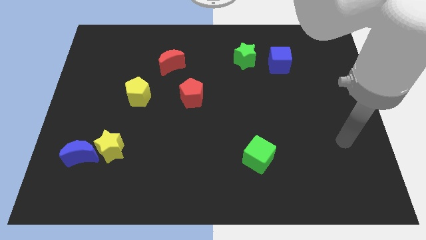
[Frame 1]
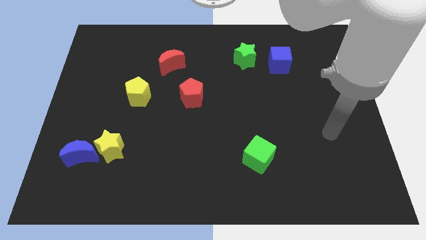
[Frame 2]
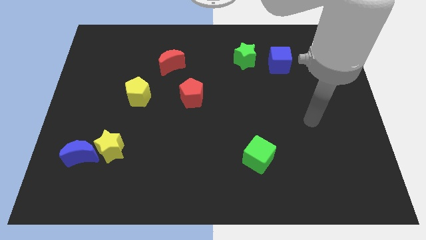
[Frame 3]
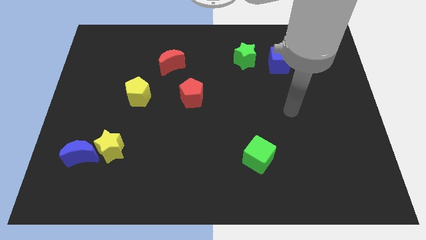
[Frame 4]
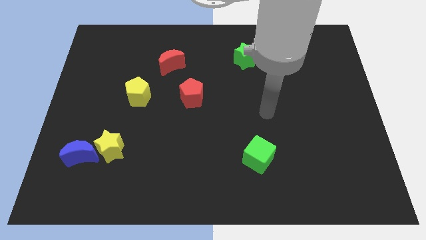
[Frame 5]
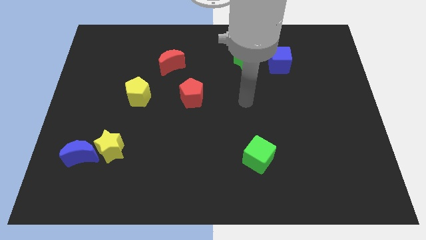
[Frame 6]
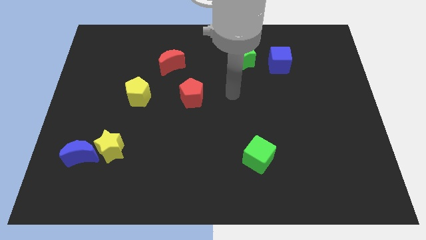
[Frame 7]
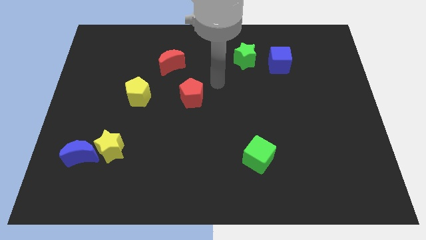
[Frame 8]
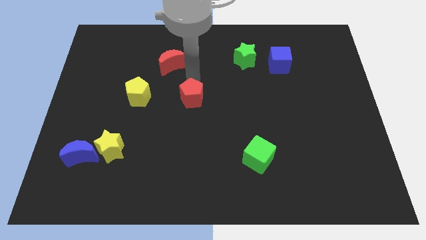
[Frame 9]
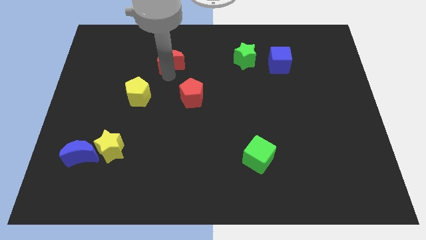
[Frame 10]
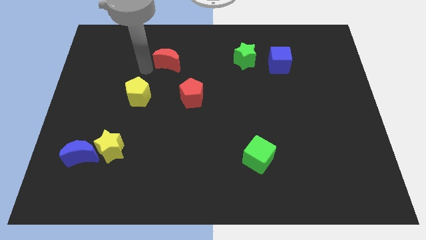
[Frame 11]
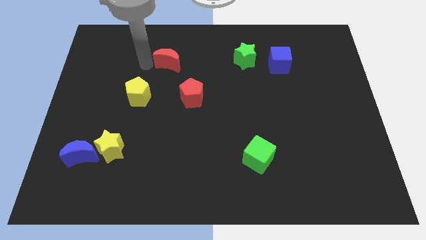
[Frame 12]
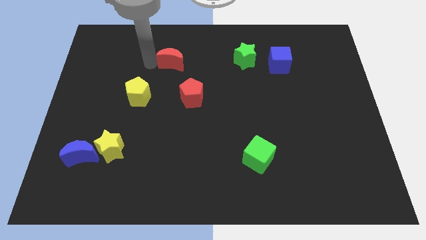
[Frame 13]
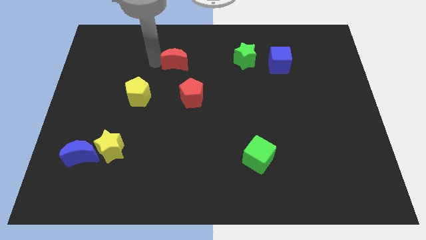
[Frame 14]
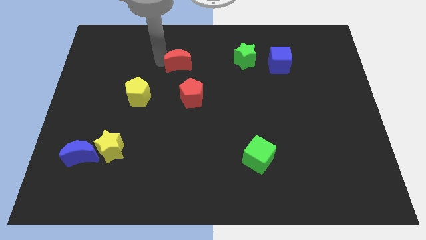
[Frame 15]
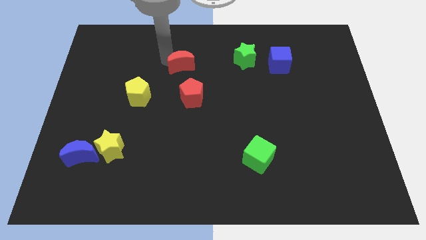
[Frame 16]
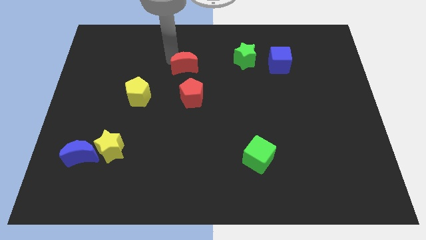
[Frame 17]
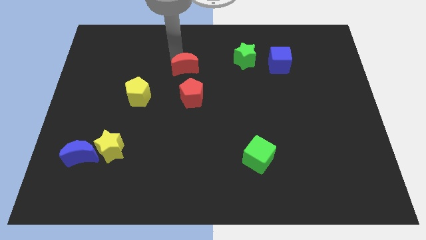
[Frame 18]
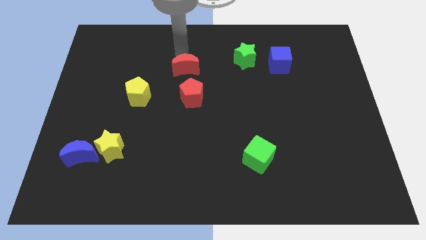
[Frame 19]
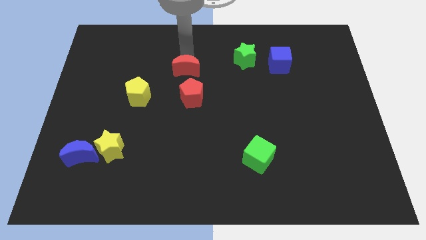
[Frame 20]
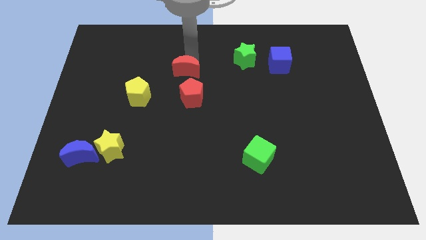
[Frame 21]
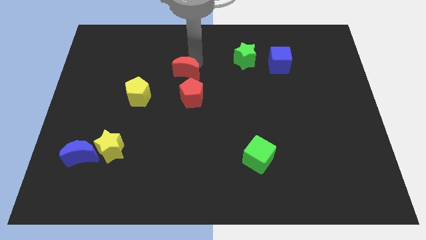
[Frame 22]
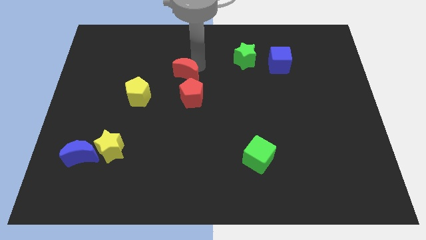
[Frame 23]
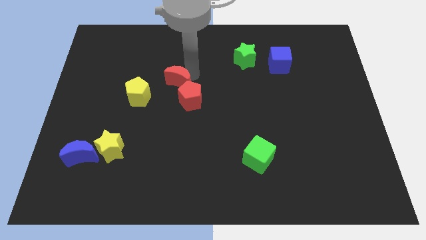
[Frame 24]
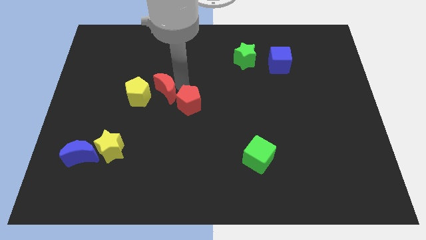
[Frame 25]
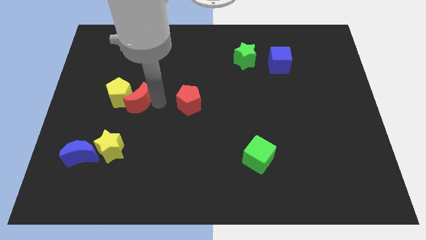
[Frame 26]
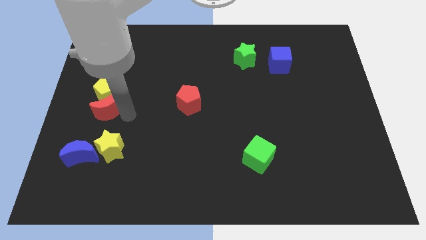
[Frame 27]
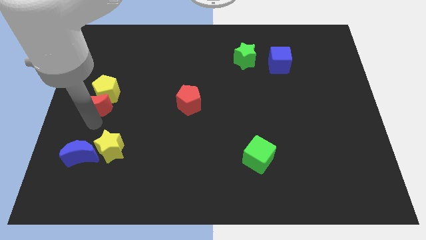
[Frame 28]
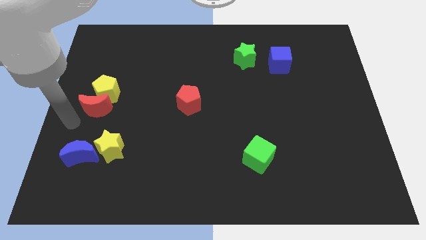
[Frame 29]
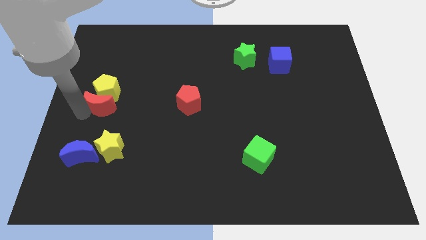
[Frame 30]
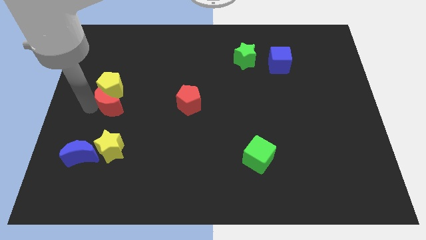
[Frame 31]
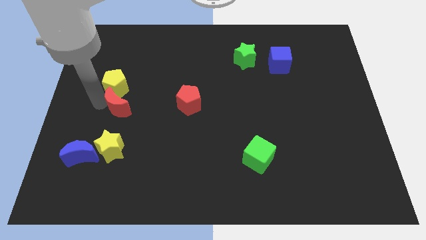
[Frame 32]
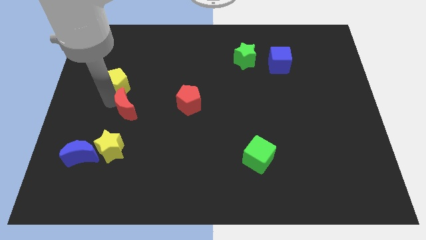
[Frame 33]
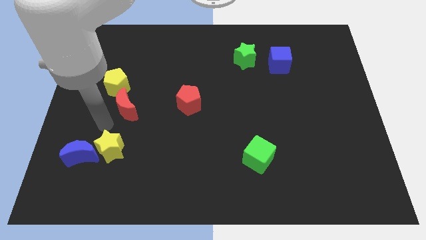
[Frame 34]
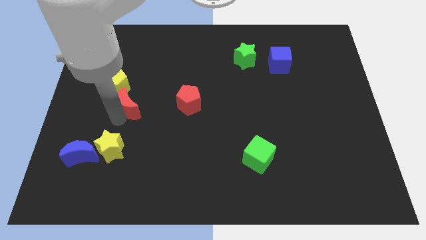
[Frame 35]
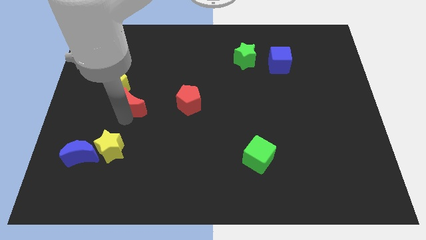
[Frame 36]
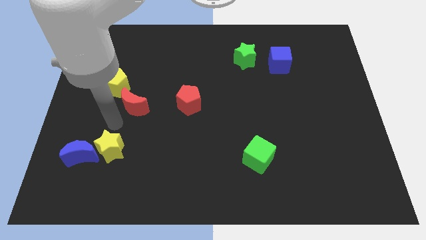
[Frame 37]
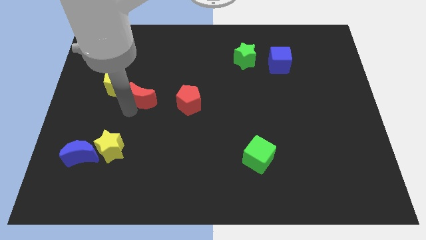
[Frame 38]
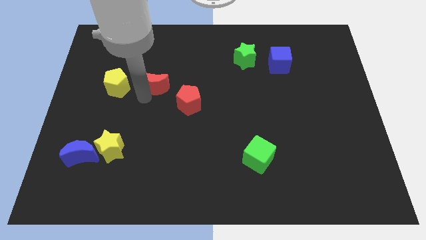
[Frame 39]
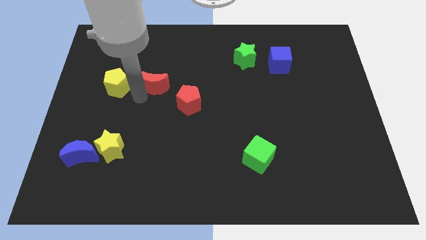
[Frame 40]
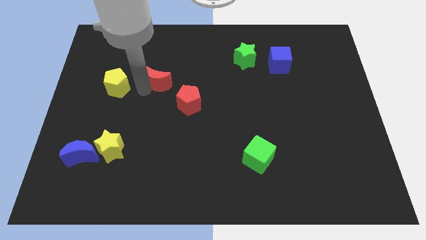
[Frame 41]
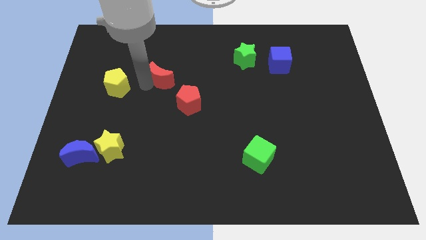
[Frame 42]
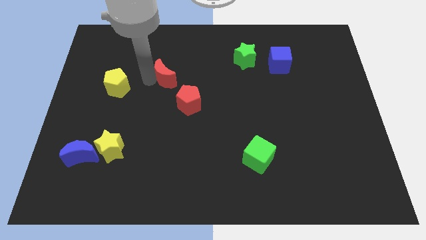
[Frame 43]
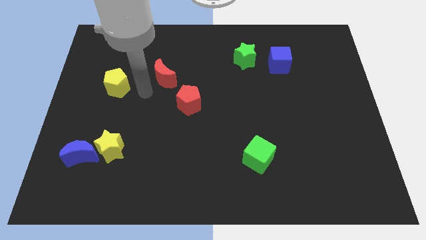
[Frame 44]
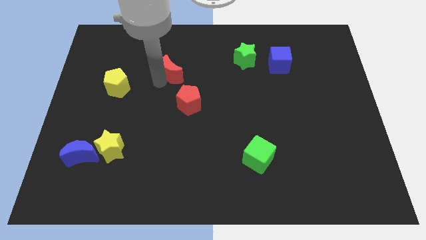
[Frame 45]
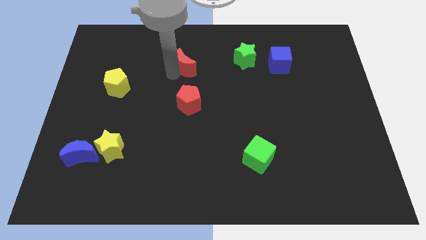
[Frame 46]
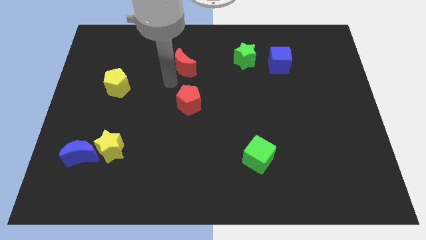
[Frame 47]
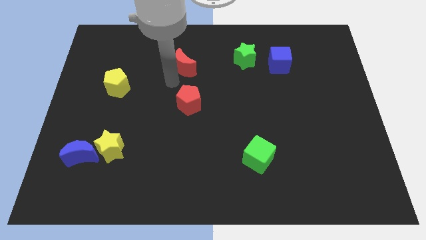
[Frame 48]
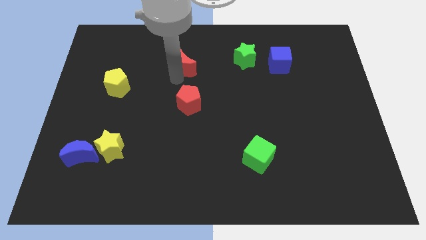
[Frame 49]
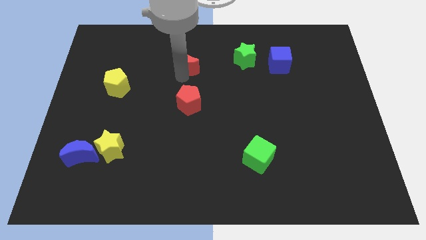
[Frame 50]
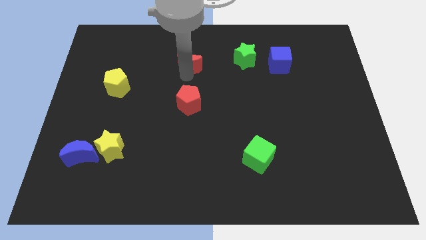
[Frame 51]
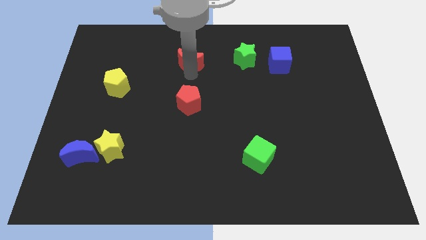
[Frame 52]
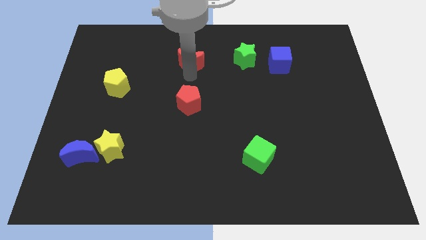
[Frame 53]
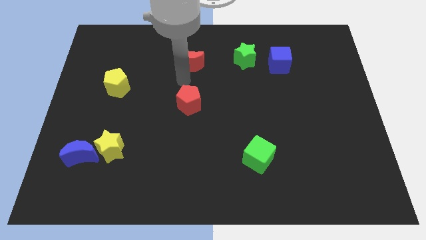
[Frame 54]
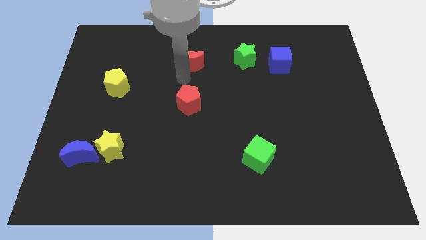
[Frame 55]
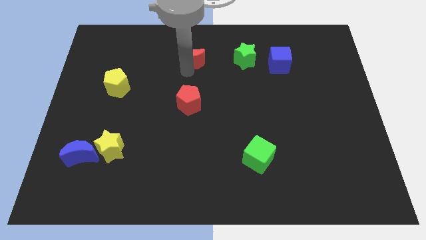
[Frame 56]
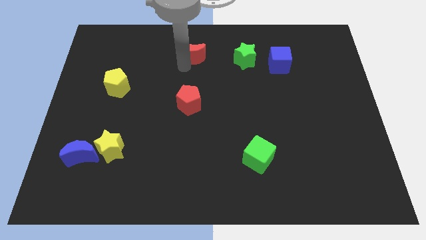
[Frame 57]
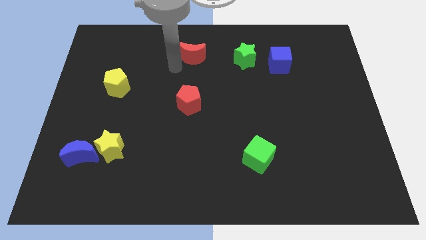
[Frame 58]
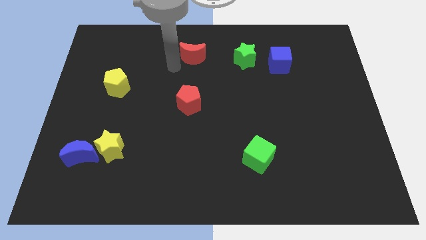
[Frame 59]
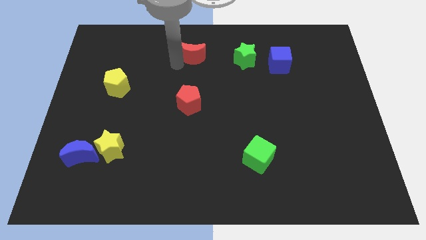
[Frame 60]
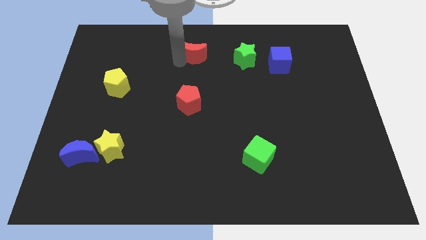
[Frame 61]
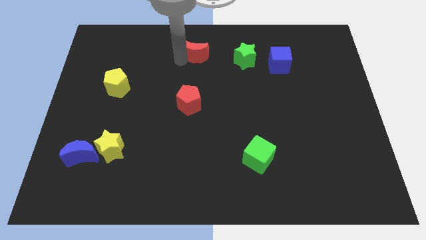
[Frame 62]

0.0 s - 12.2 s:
slide the red moon to the top
